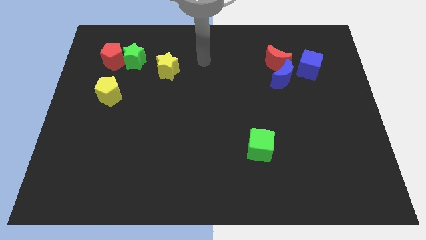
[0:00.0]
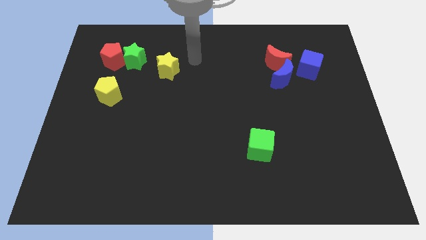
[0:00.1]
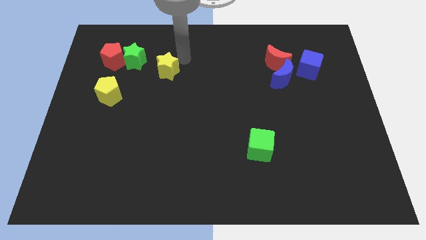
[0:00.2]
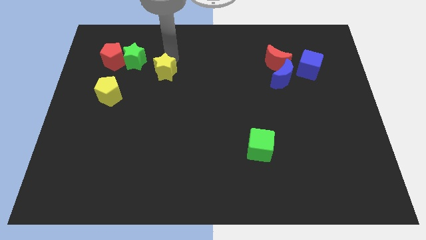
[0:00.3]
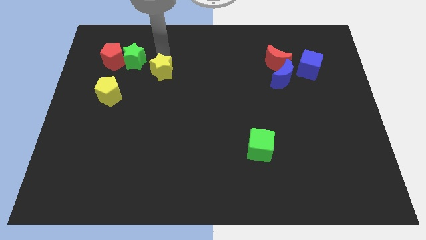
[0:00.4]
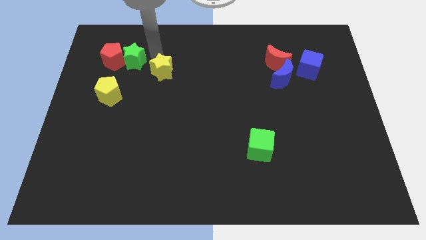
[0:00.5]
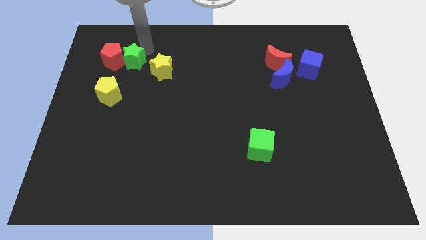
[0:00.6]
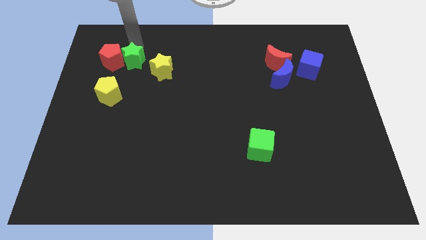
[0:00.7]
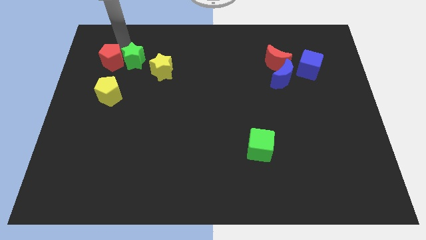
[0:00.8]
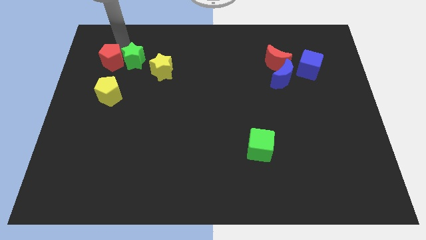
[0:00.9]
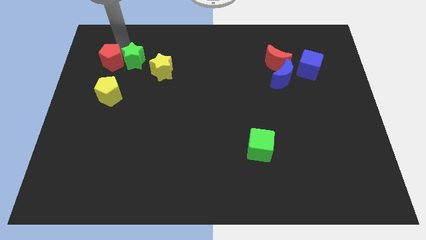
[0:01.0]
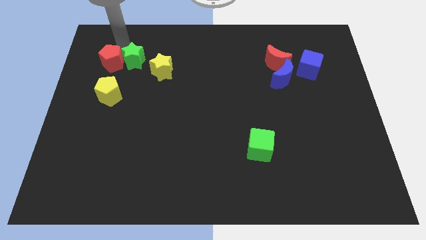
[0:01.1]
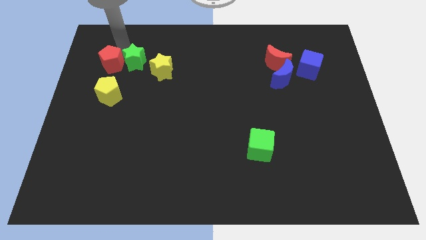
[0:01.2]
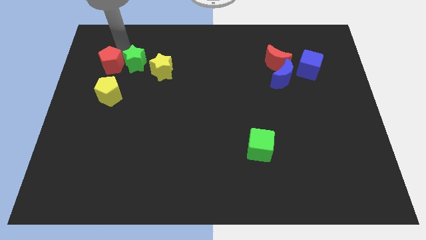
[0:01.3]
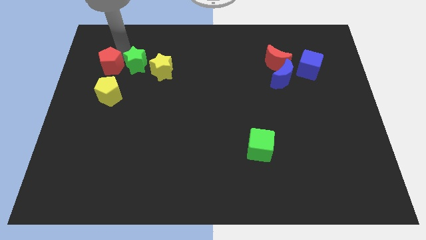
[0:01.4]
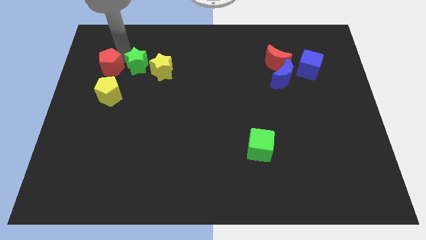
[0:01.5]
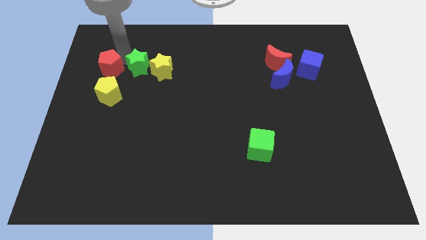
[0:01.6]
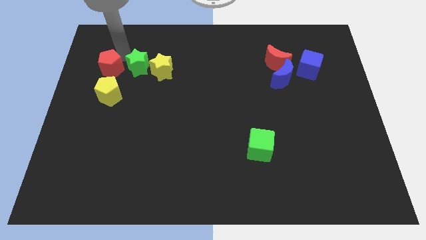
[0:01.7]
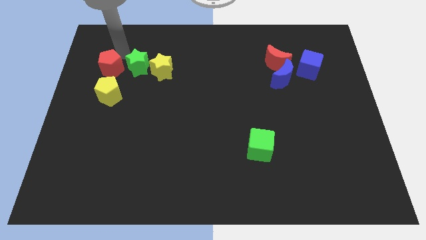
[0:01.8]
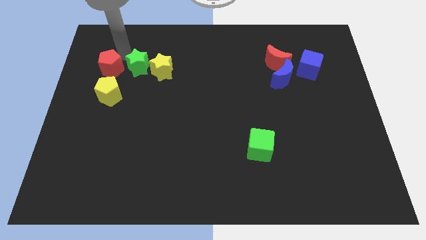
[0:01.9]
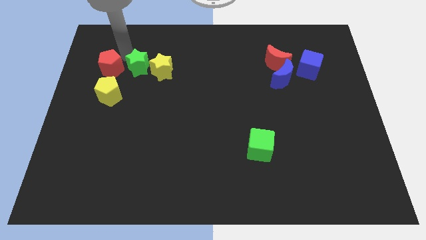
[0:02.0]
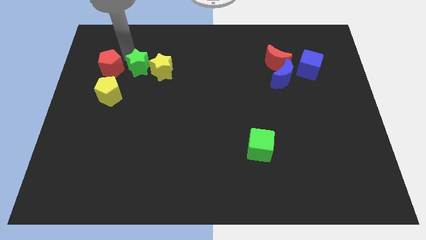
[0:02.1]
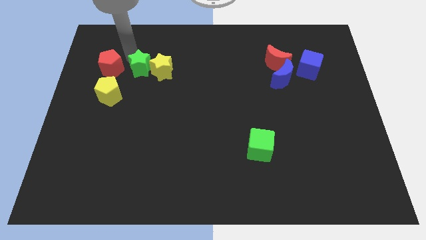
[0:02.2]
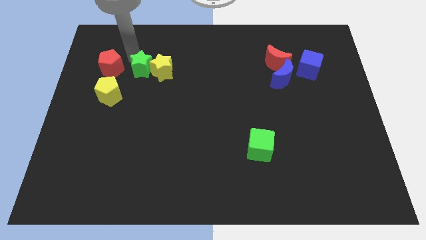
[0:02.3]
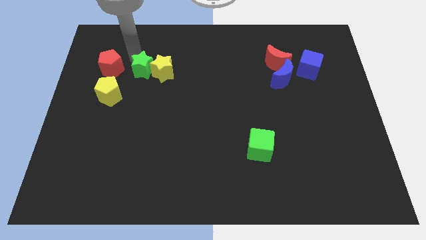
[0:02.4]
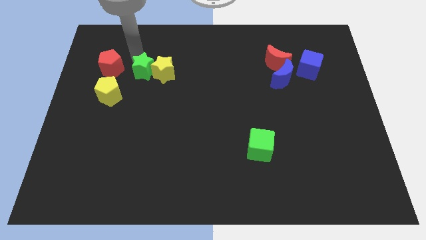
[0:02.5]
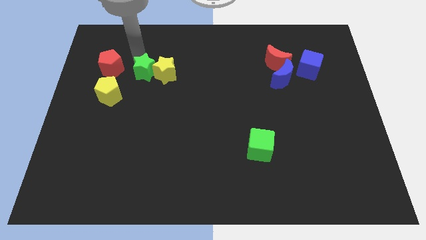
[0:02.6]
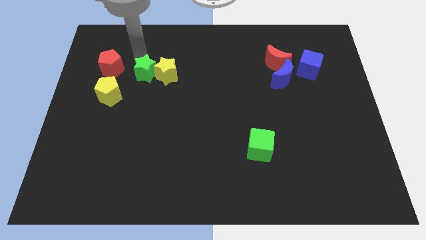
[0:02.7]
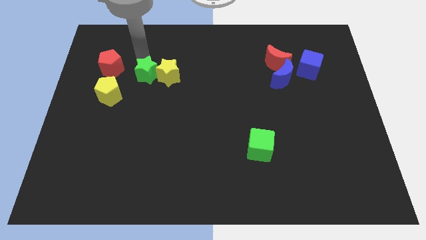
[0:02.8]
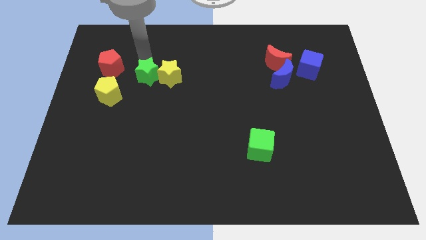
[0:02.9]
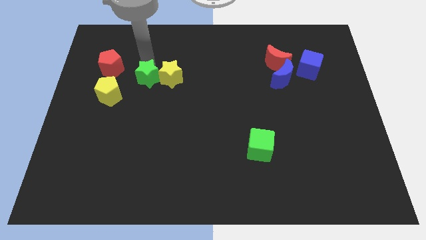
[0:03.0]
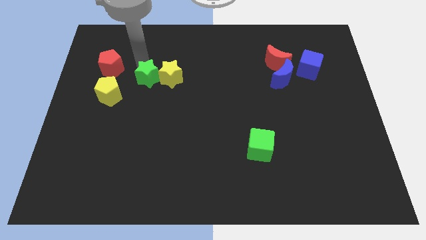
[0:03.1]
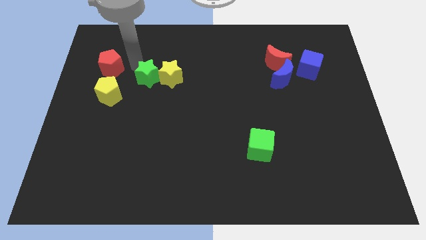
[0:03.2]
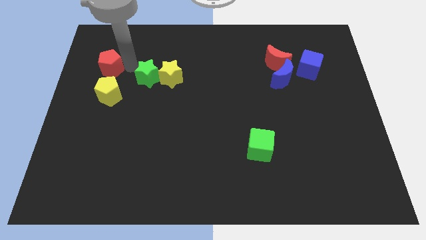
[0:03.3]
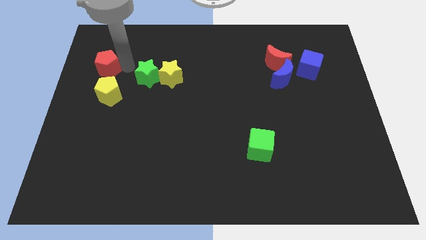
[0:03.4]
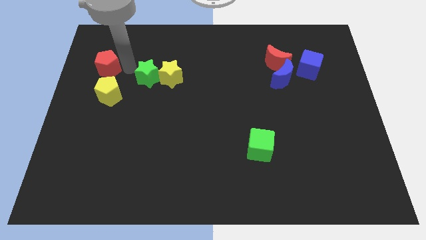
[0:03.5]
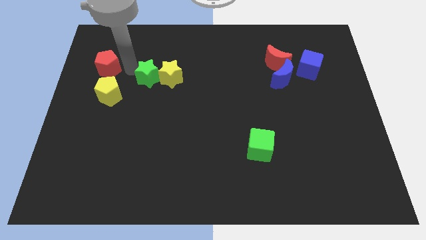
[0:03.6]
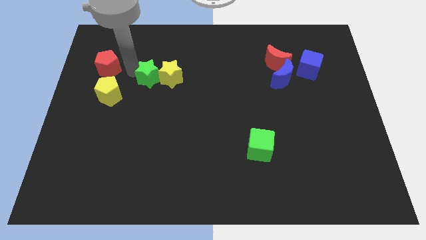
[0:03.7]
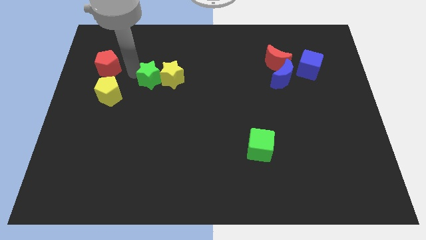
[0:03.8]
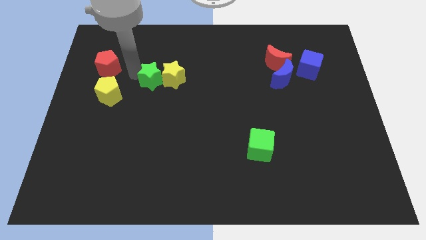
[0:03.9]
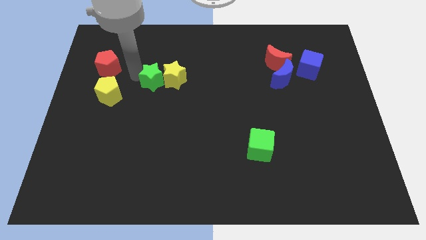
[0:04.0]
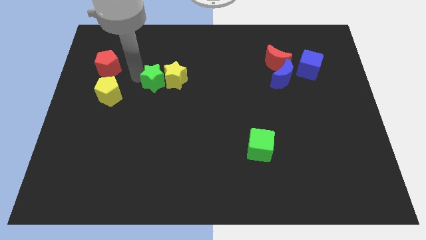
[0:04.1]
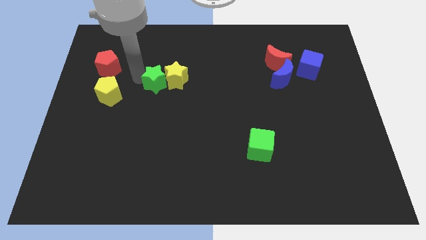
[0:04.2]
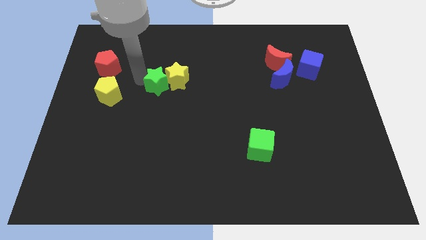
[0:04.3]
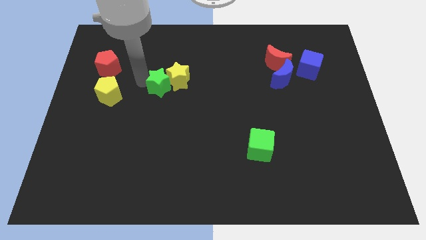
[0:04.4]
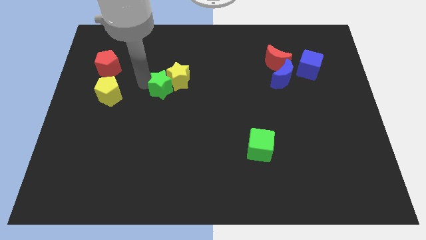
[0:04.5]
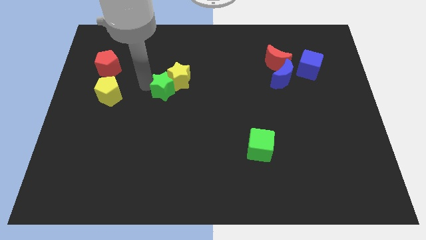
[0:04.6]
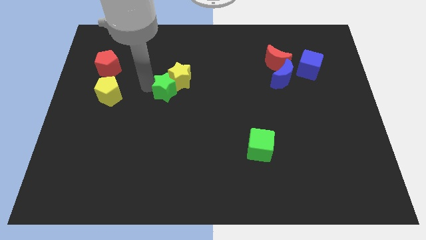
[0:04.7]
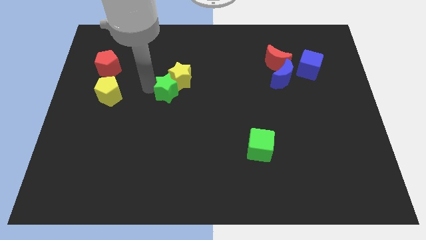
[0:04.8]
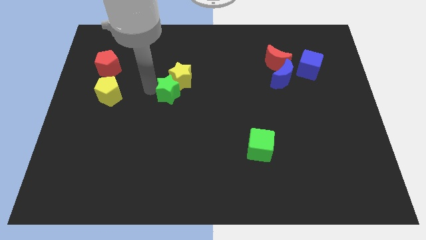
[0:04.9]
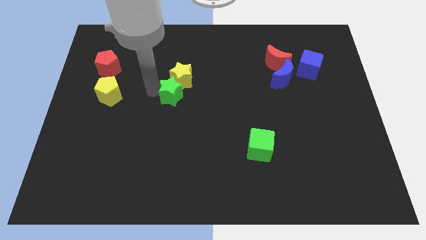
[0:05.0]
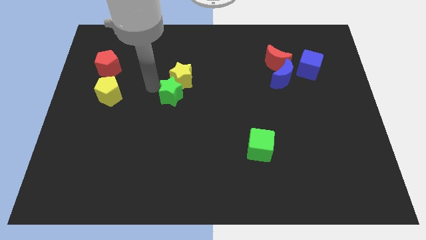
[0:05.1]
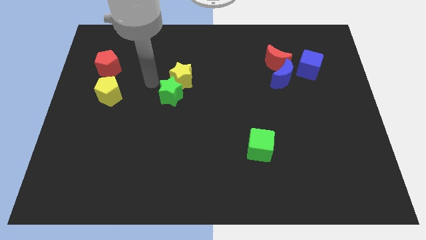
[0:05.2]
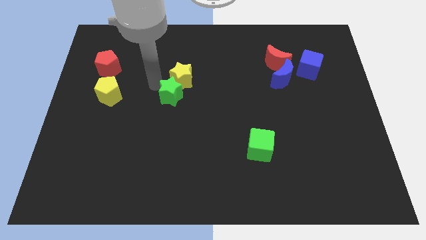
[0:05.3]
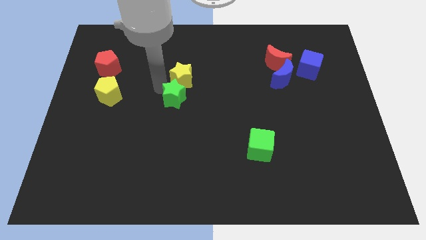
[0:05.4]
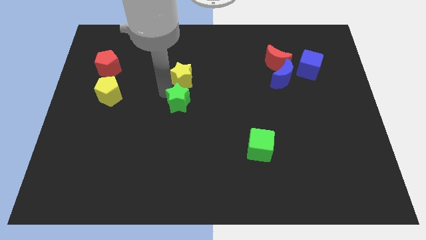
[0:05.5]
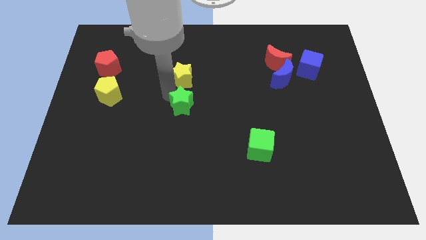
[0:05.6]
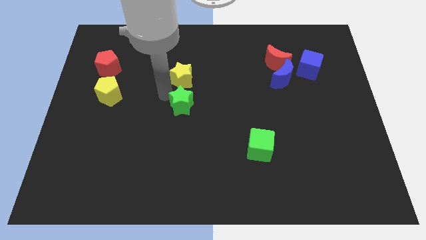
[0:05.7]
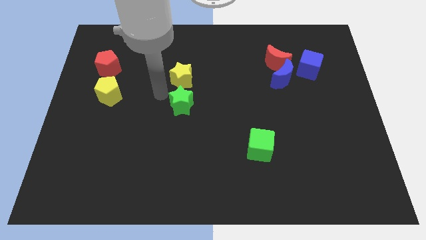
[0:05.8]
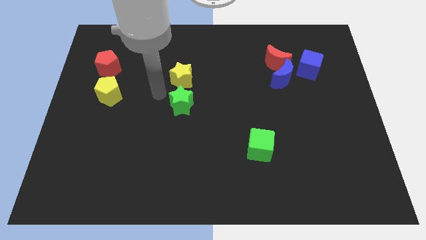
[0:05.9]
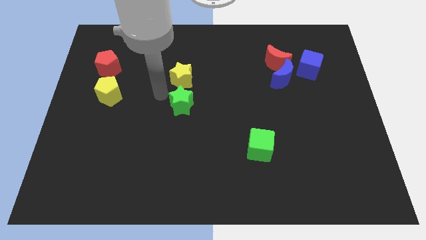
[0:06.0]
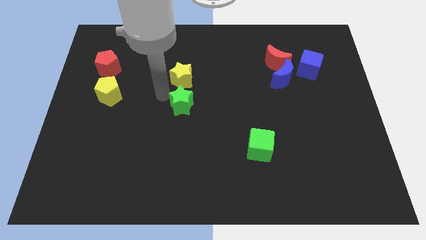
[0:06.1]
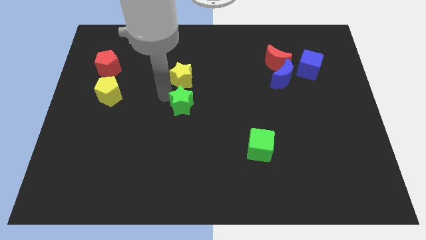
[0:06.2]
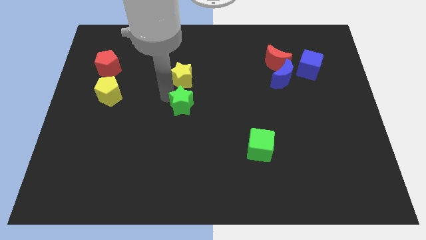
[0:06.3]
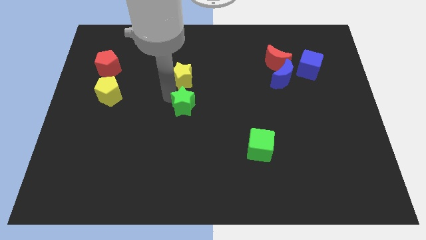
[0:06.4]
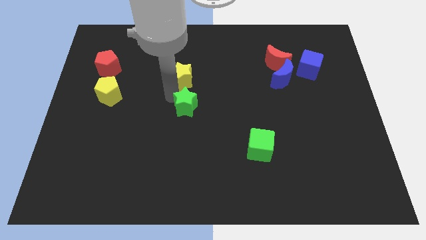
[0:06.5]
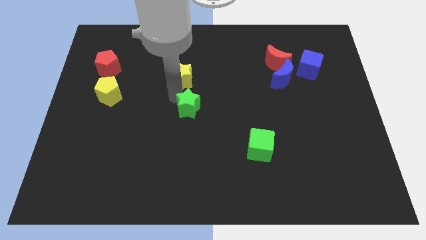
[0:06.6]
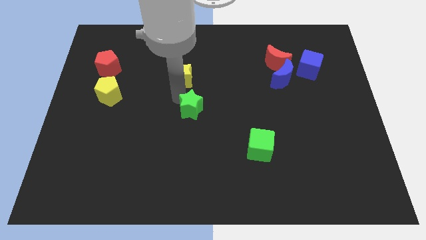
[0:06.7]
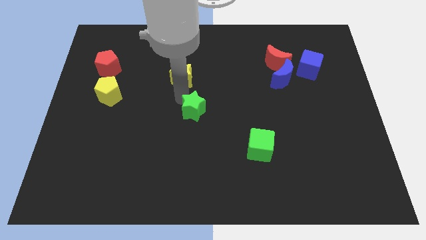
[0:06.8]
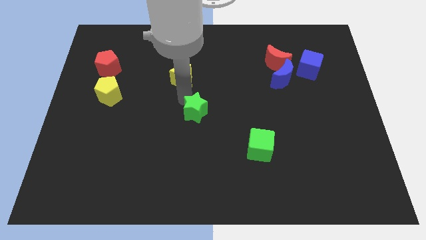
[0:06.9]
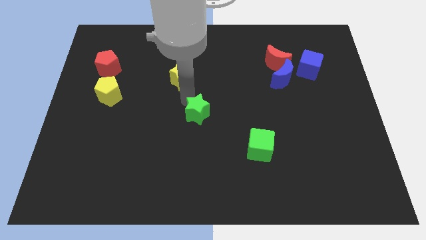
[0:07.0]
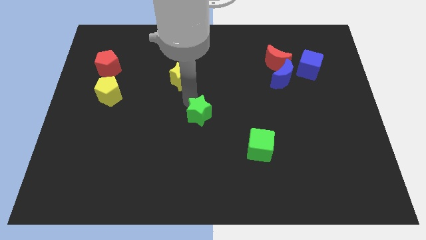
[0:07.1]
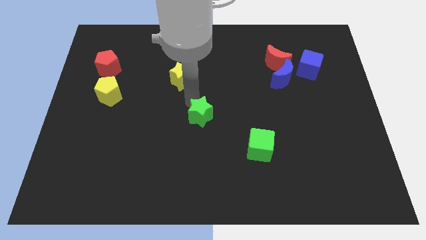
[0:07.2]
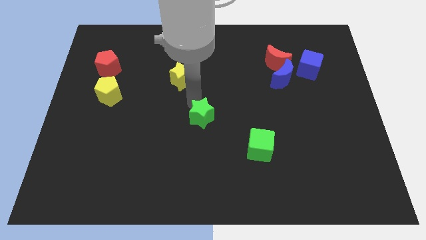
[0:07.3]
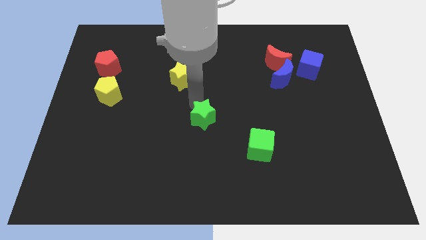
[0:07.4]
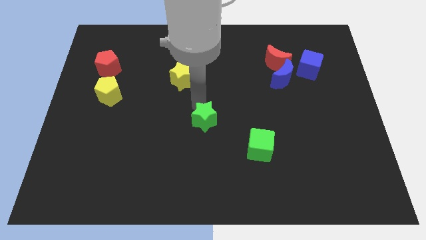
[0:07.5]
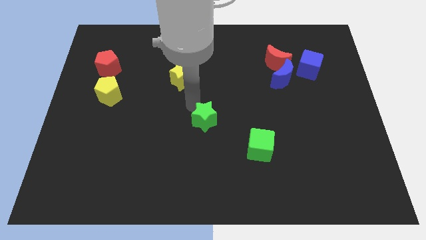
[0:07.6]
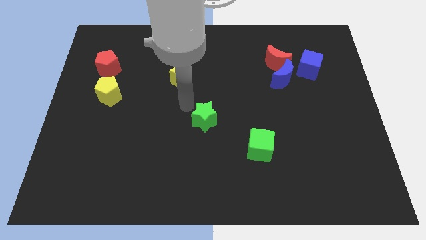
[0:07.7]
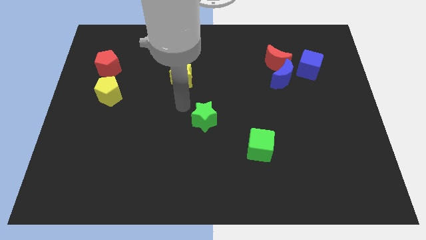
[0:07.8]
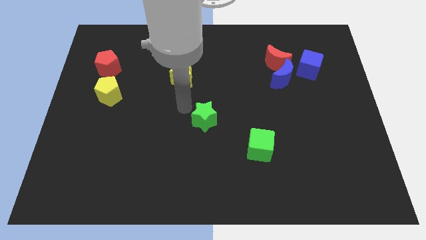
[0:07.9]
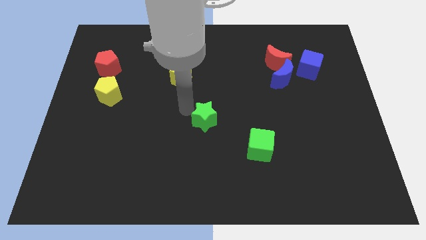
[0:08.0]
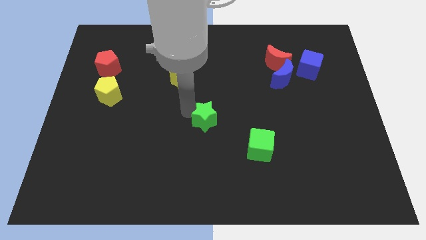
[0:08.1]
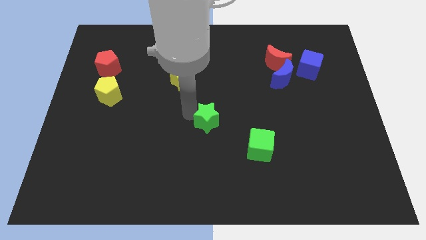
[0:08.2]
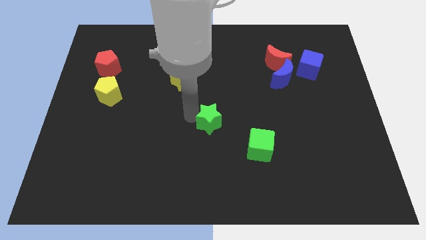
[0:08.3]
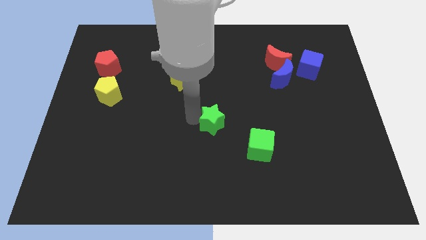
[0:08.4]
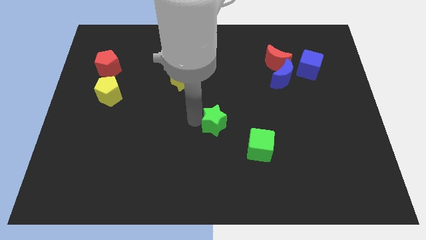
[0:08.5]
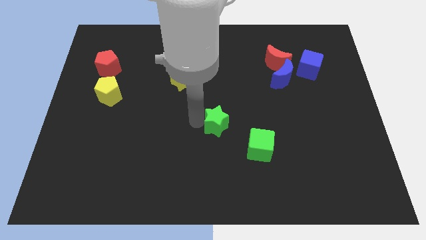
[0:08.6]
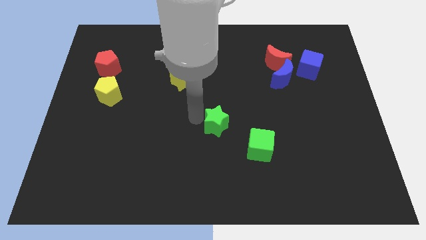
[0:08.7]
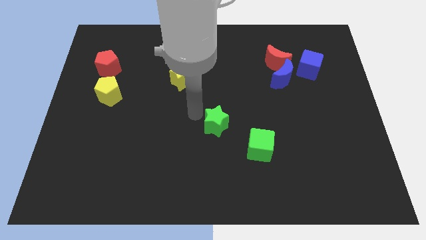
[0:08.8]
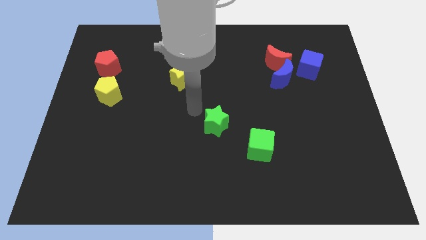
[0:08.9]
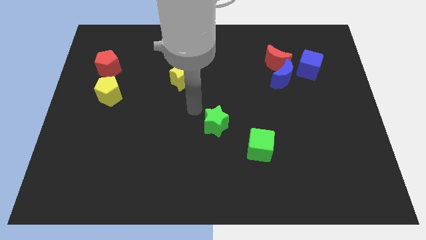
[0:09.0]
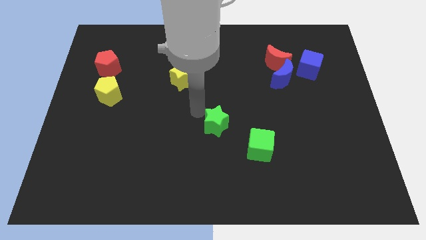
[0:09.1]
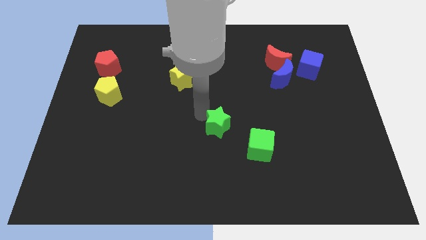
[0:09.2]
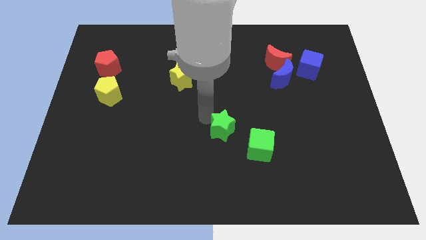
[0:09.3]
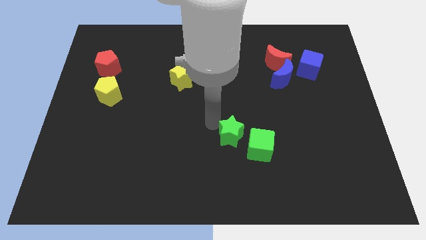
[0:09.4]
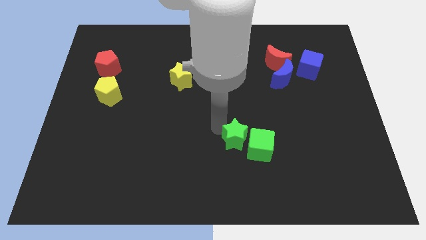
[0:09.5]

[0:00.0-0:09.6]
put the green star towards the green cube
